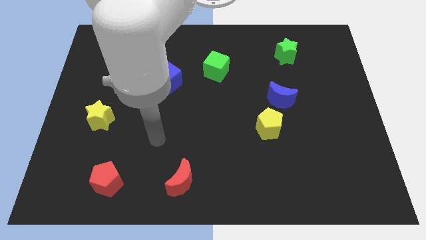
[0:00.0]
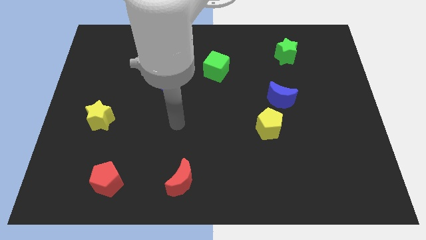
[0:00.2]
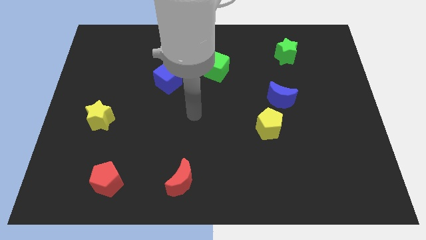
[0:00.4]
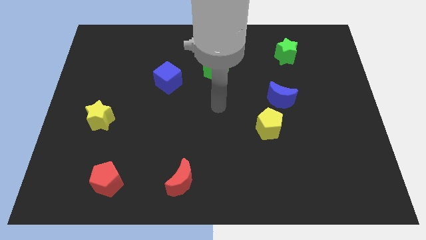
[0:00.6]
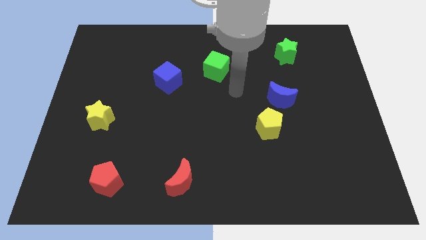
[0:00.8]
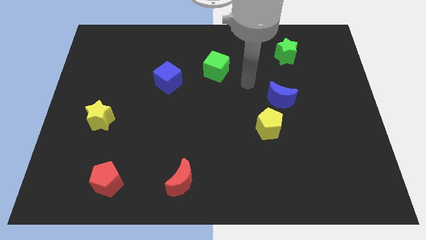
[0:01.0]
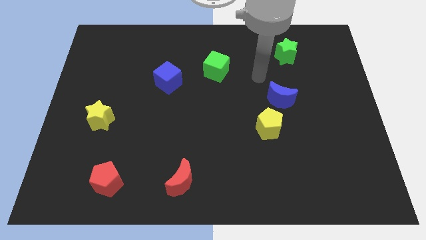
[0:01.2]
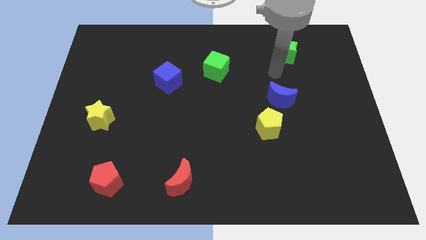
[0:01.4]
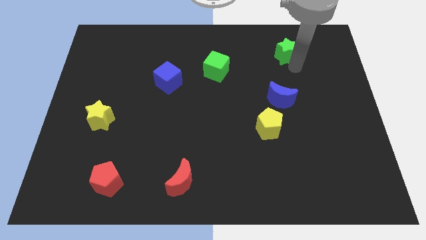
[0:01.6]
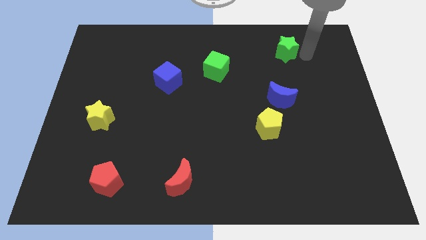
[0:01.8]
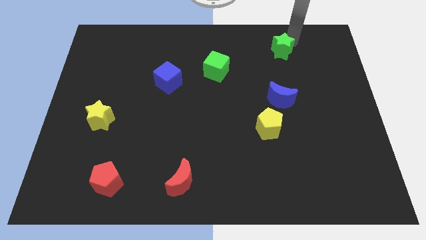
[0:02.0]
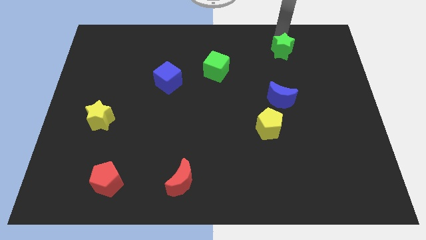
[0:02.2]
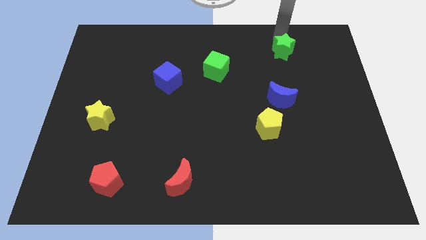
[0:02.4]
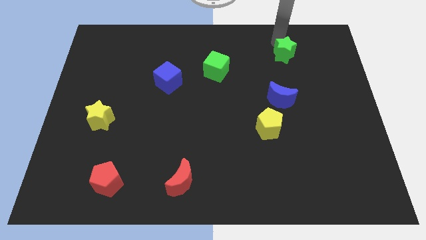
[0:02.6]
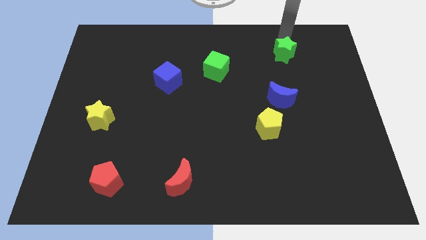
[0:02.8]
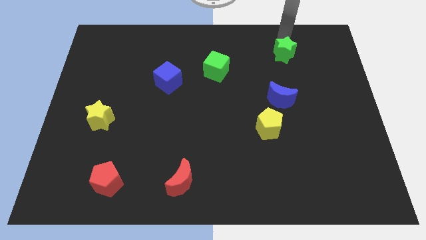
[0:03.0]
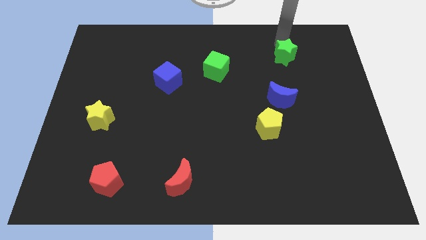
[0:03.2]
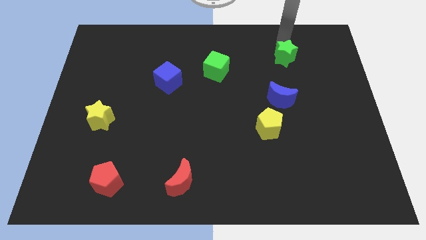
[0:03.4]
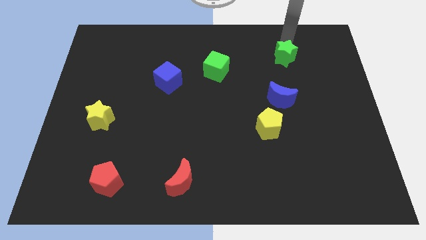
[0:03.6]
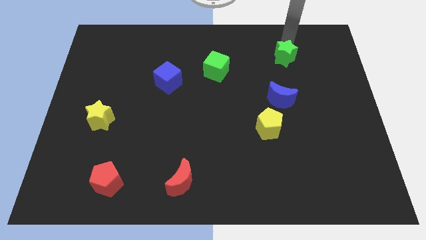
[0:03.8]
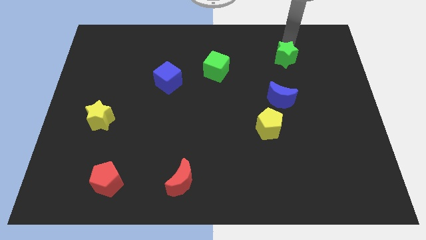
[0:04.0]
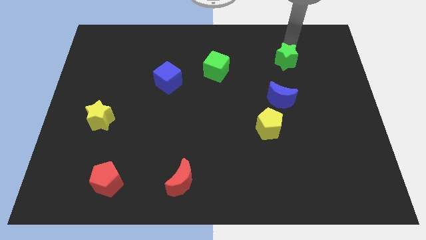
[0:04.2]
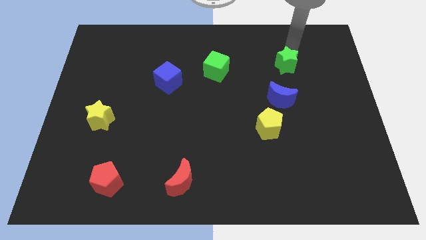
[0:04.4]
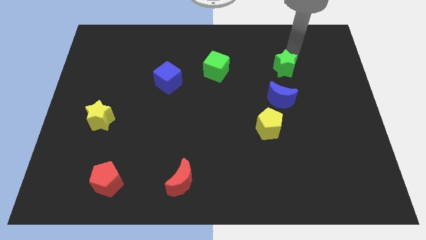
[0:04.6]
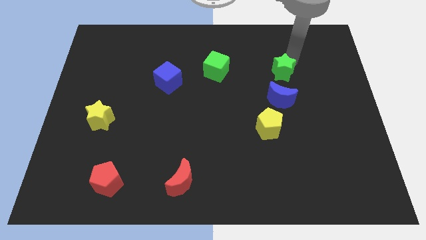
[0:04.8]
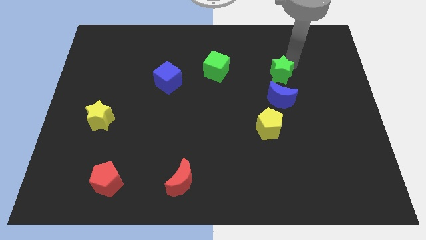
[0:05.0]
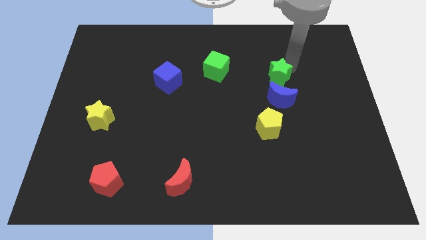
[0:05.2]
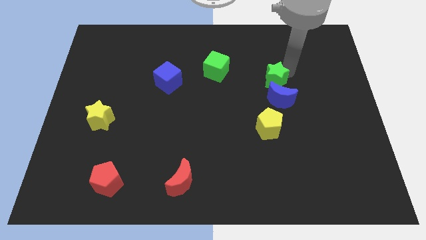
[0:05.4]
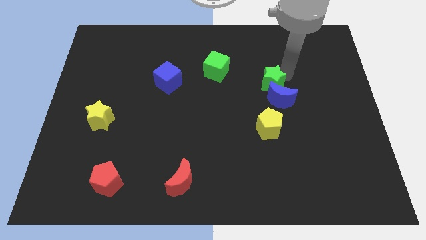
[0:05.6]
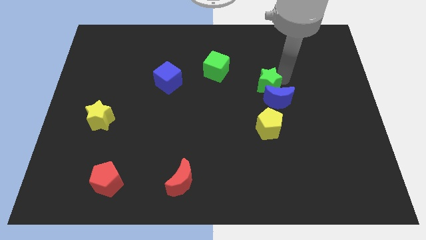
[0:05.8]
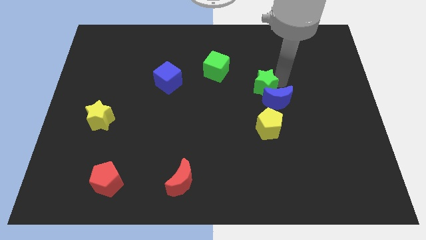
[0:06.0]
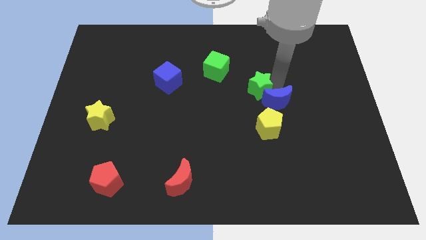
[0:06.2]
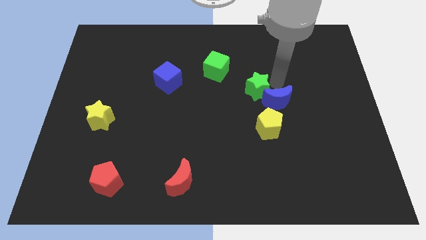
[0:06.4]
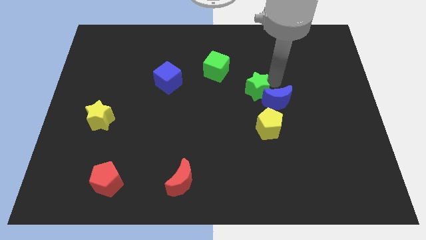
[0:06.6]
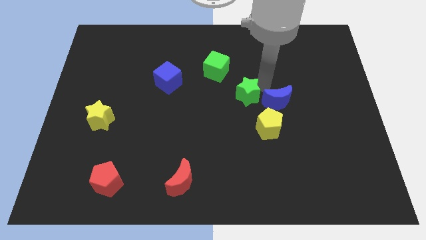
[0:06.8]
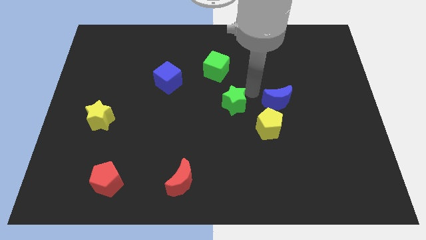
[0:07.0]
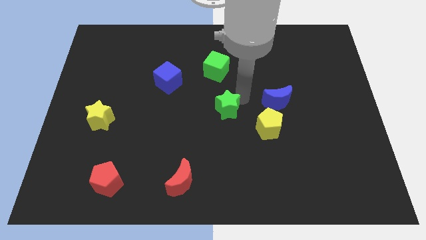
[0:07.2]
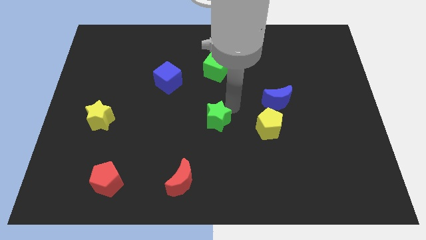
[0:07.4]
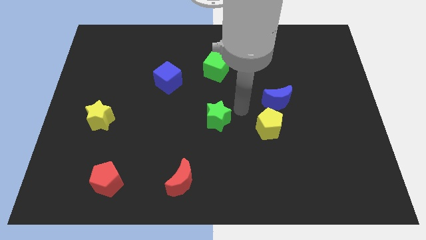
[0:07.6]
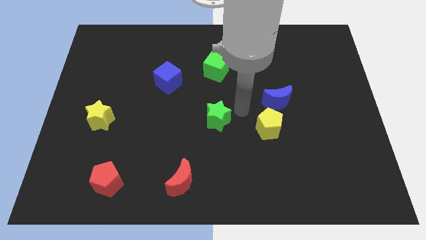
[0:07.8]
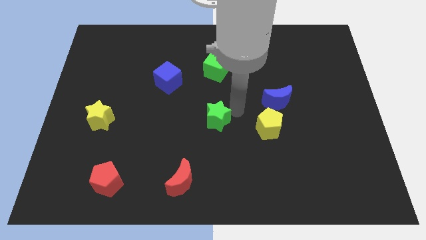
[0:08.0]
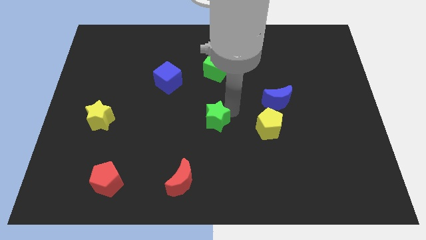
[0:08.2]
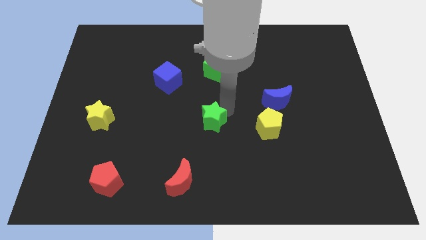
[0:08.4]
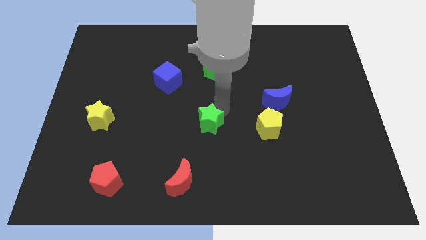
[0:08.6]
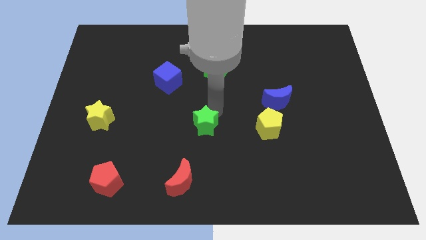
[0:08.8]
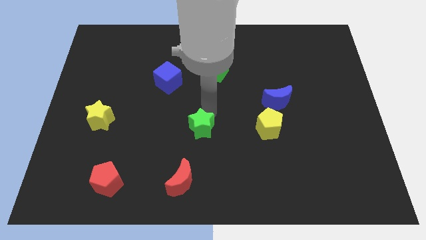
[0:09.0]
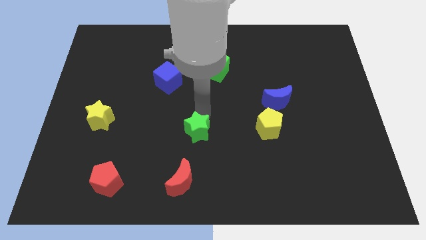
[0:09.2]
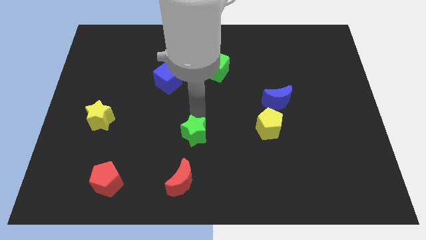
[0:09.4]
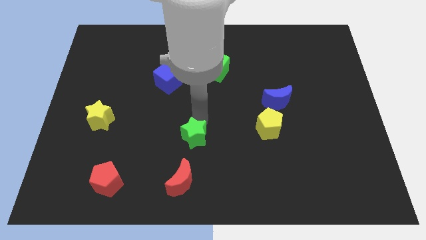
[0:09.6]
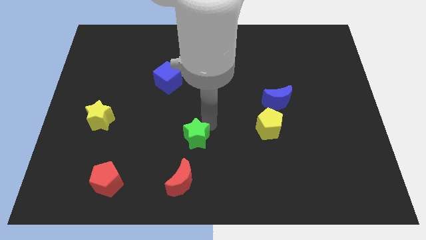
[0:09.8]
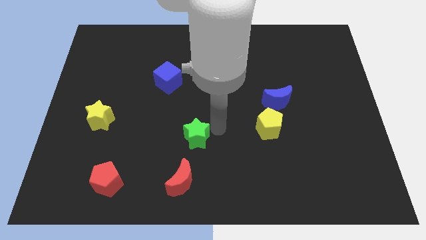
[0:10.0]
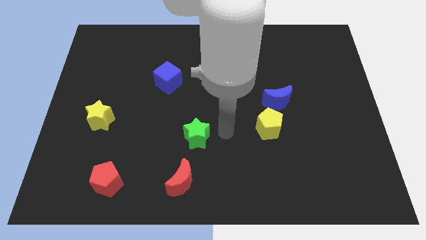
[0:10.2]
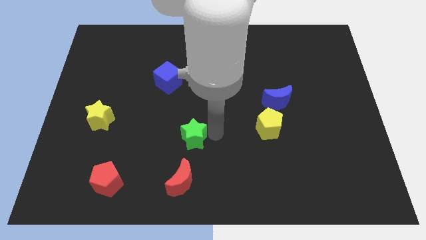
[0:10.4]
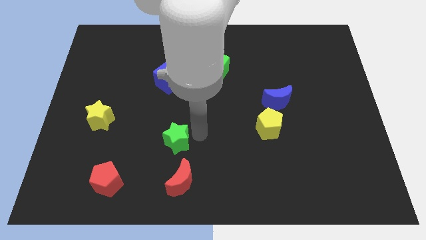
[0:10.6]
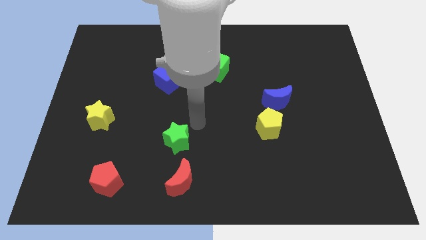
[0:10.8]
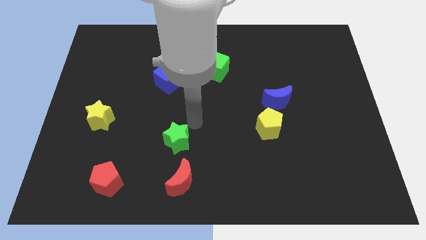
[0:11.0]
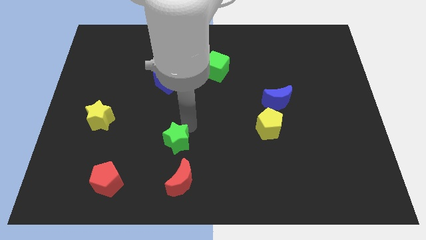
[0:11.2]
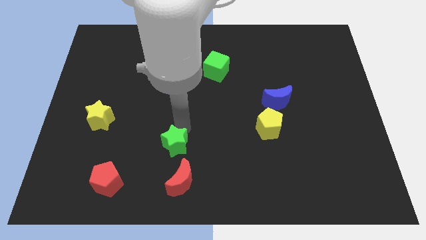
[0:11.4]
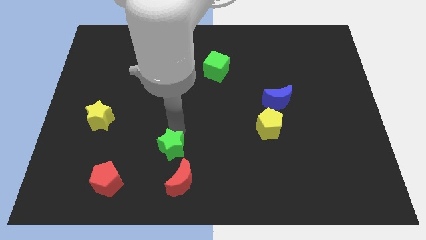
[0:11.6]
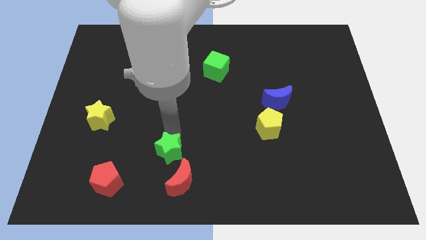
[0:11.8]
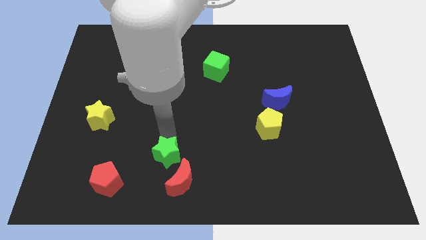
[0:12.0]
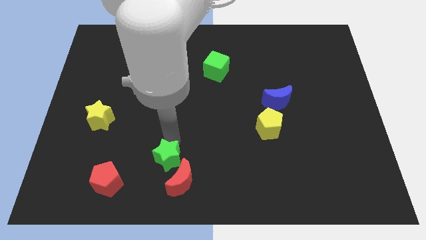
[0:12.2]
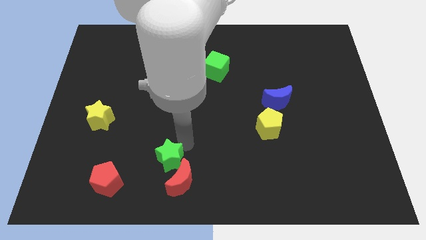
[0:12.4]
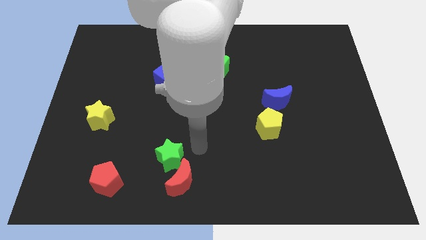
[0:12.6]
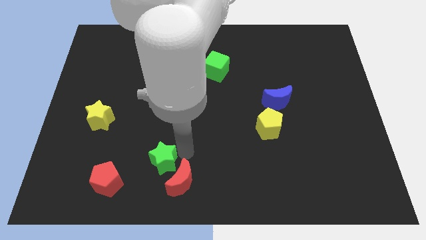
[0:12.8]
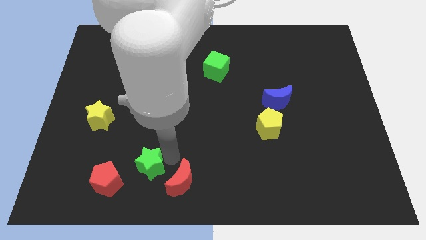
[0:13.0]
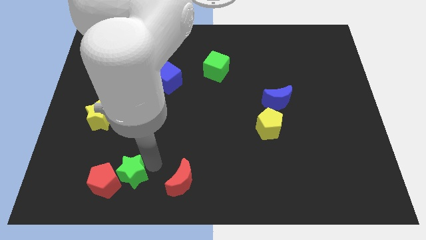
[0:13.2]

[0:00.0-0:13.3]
put the green star close to the red pentagon

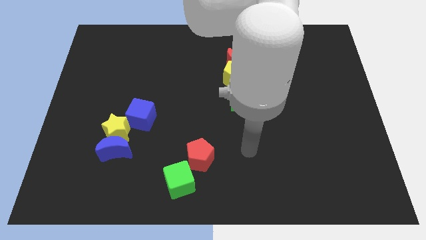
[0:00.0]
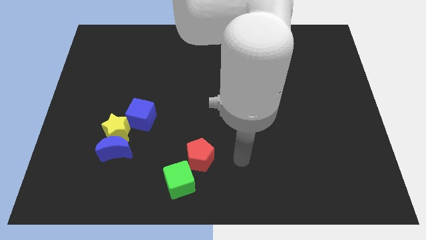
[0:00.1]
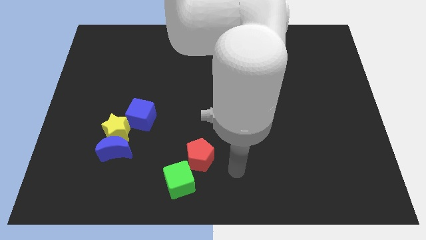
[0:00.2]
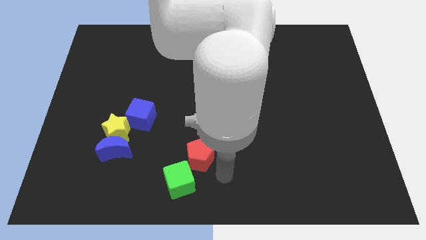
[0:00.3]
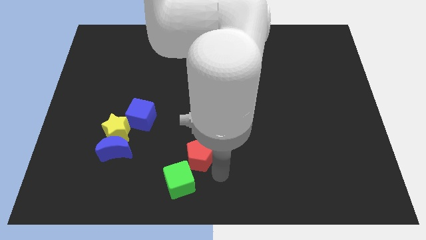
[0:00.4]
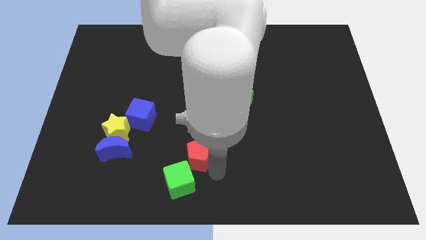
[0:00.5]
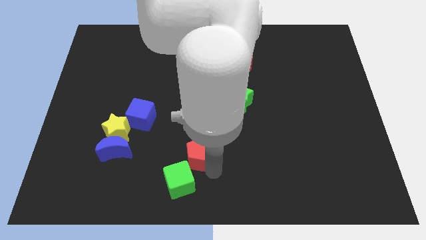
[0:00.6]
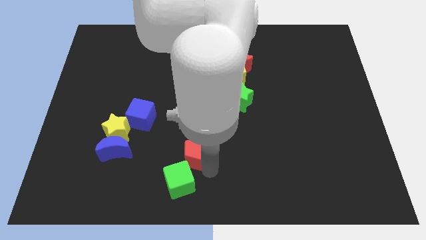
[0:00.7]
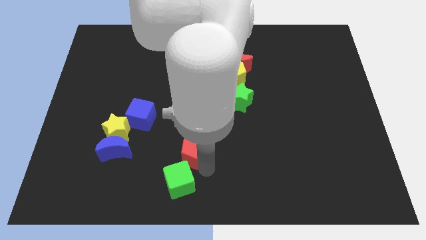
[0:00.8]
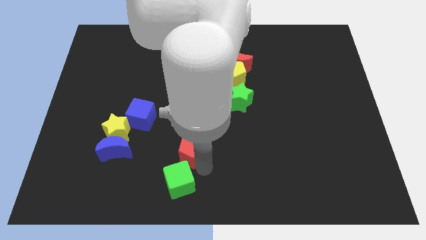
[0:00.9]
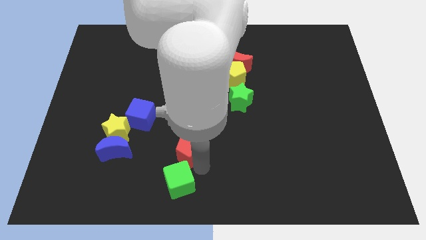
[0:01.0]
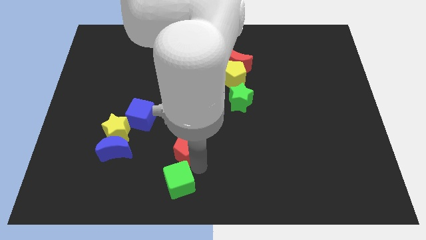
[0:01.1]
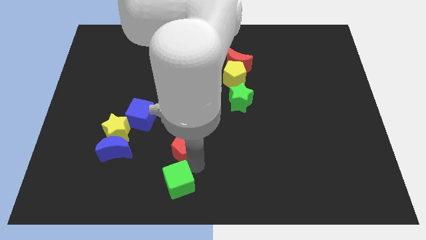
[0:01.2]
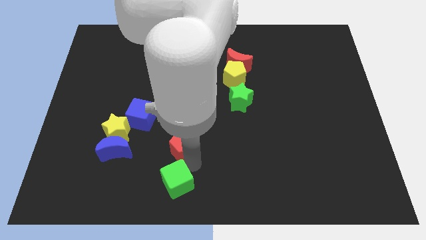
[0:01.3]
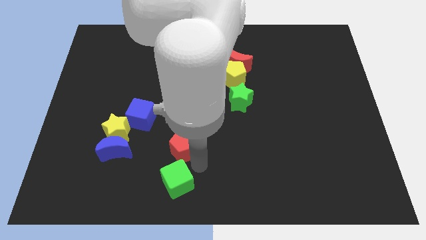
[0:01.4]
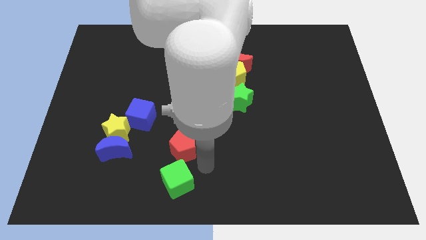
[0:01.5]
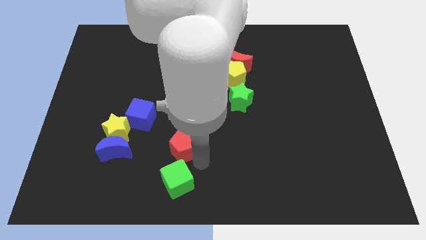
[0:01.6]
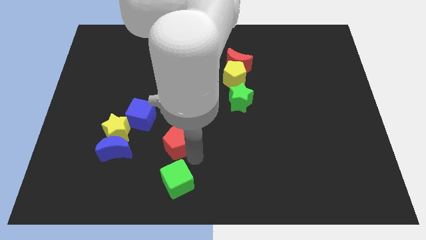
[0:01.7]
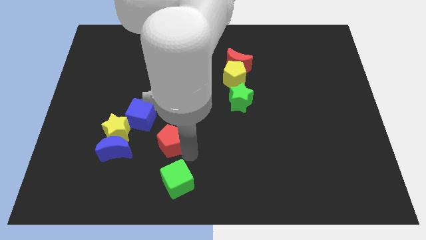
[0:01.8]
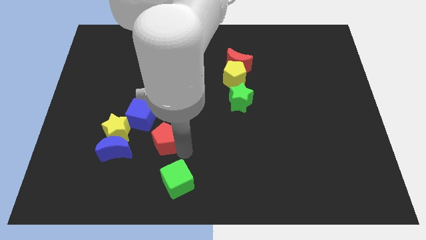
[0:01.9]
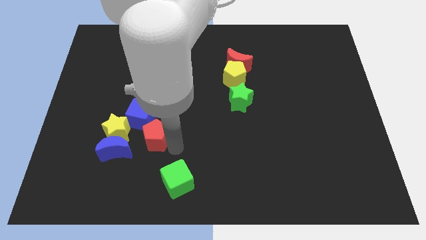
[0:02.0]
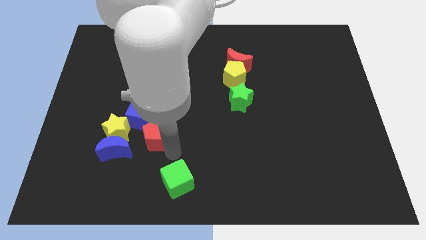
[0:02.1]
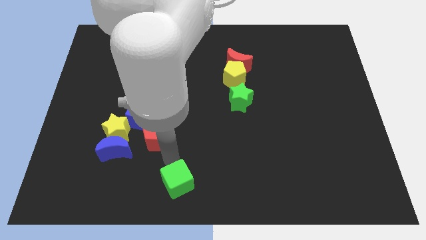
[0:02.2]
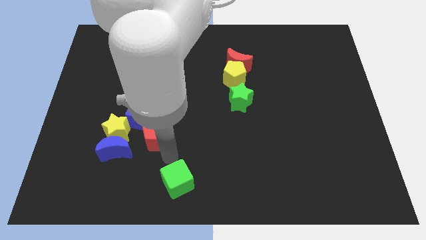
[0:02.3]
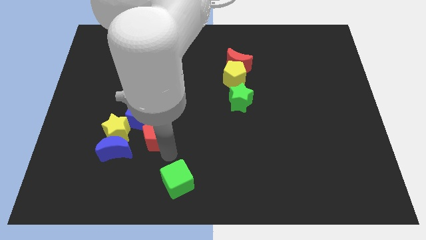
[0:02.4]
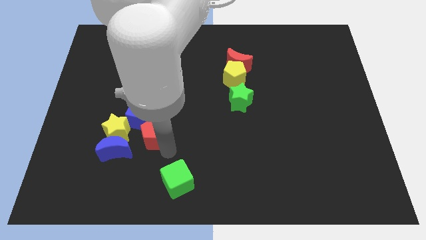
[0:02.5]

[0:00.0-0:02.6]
slide the red pentagon next to the blue cube
